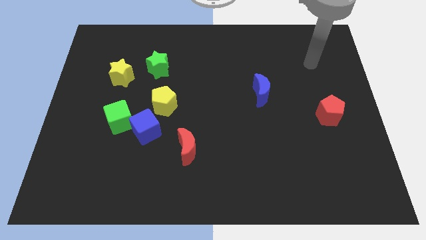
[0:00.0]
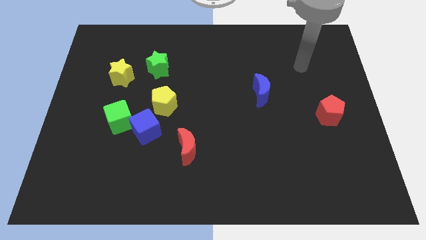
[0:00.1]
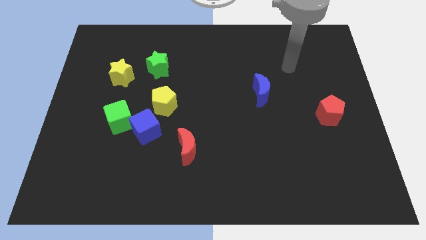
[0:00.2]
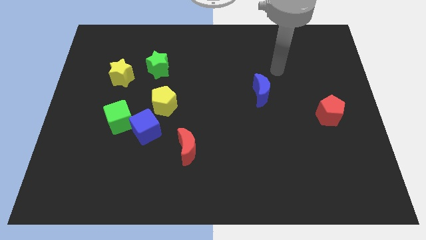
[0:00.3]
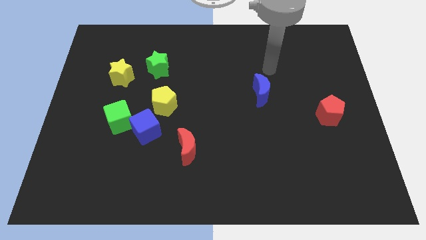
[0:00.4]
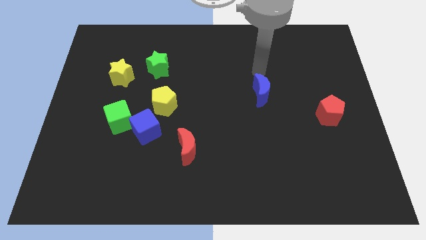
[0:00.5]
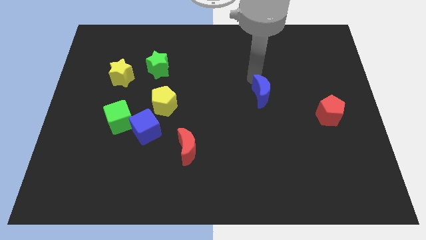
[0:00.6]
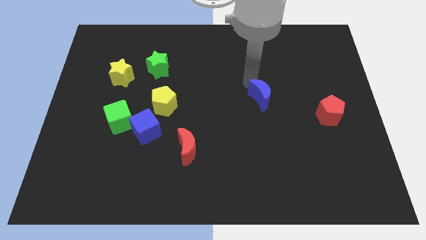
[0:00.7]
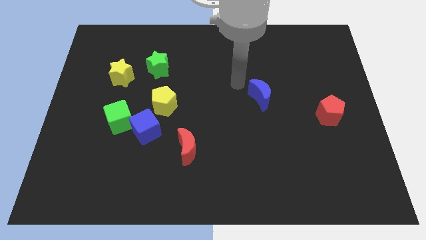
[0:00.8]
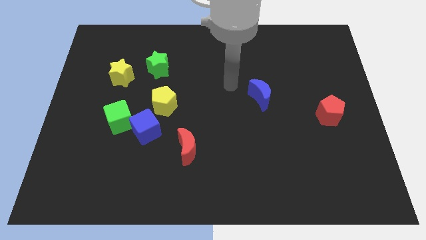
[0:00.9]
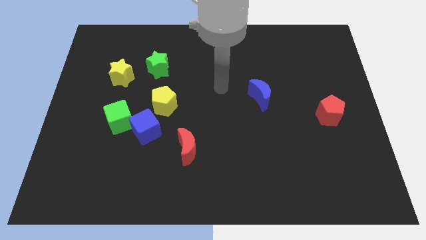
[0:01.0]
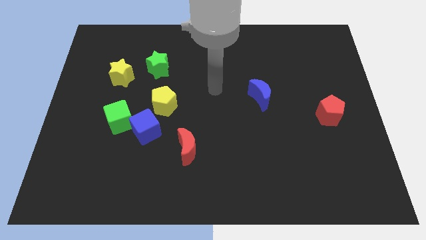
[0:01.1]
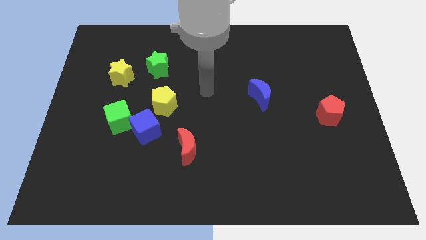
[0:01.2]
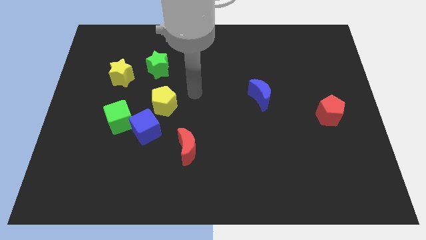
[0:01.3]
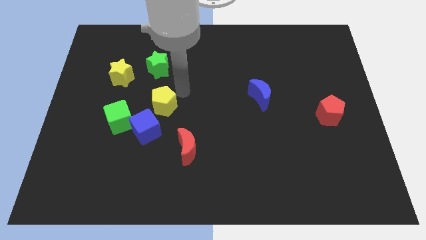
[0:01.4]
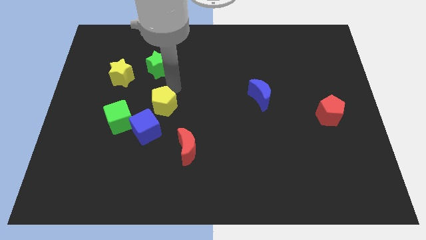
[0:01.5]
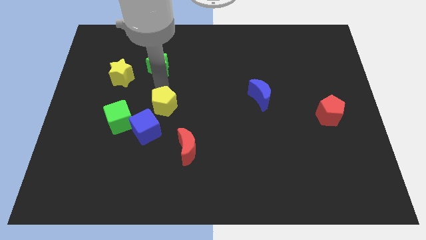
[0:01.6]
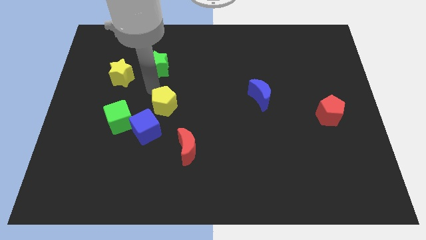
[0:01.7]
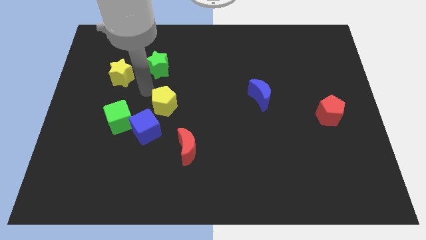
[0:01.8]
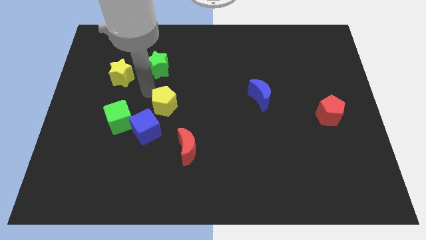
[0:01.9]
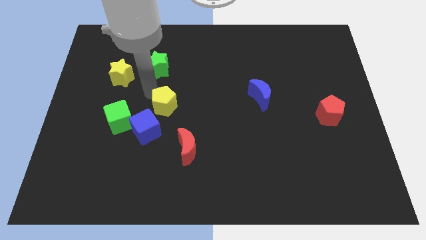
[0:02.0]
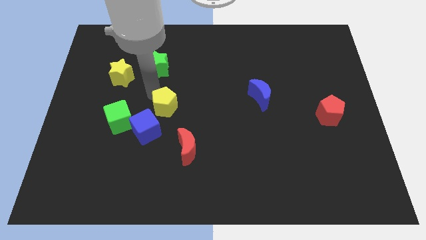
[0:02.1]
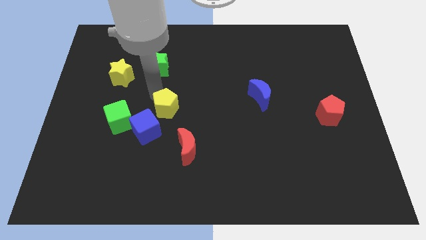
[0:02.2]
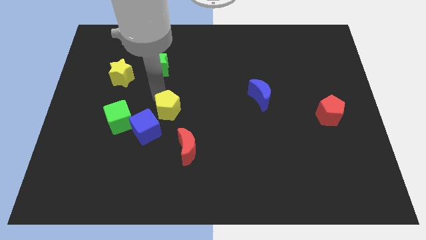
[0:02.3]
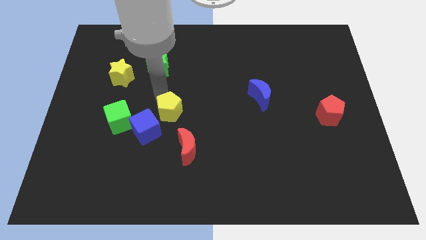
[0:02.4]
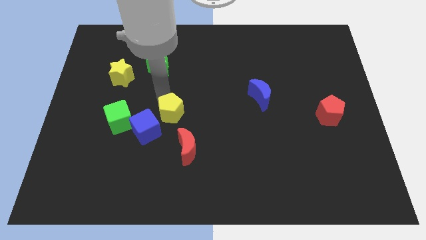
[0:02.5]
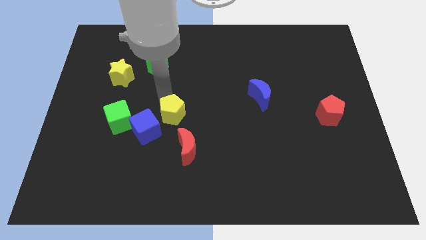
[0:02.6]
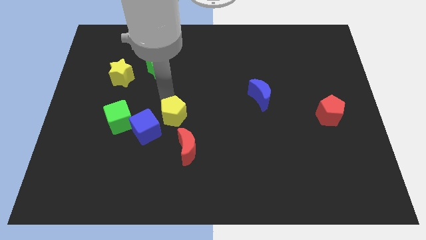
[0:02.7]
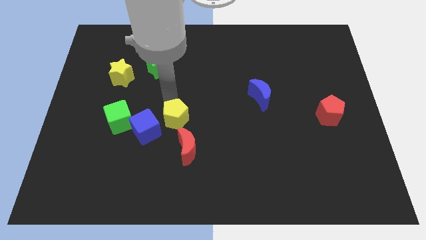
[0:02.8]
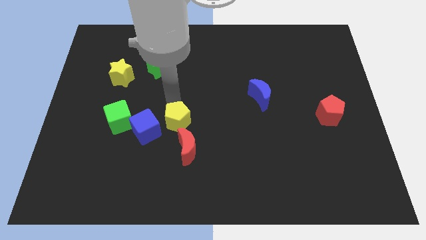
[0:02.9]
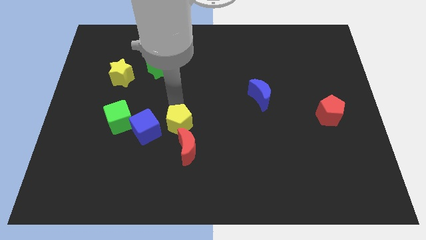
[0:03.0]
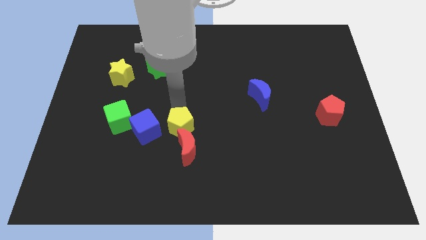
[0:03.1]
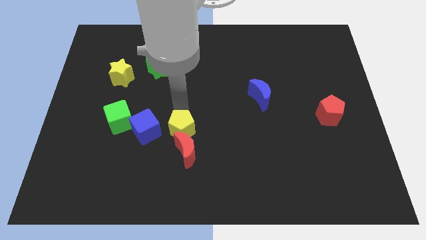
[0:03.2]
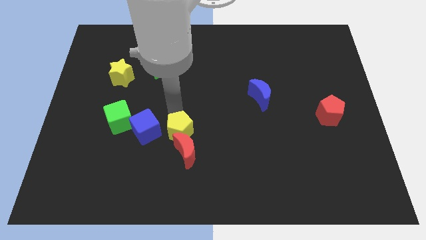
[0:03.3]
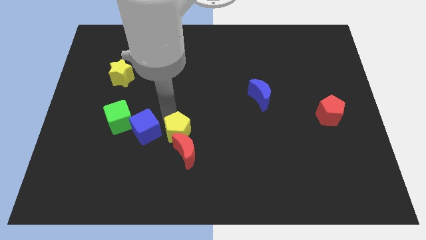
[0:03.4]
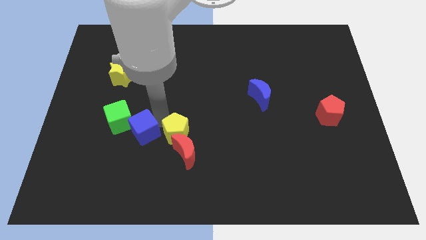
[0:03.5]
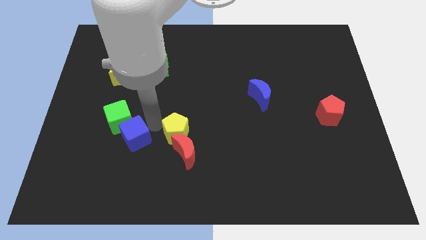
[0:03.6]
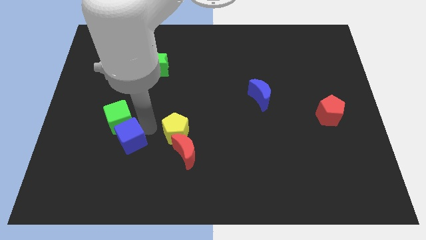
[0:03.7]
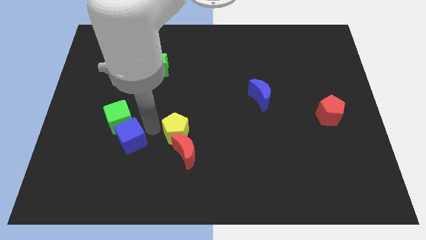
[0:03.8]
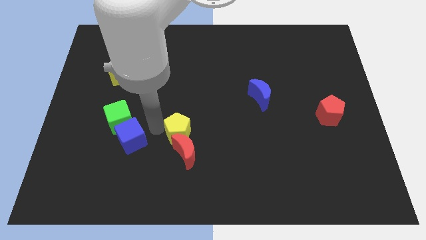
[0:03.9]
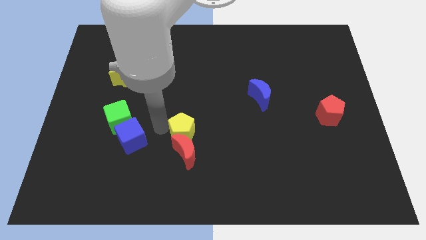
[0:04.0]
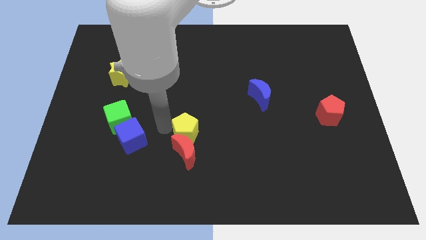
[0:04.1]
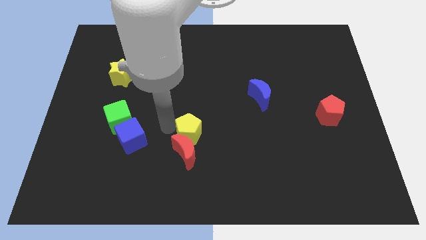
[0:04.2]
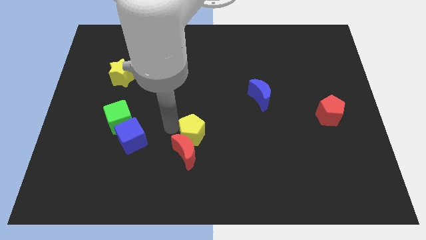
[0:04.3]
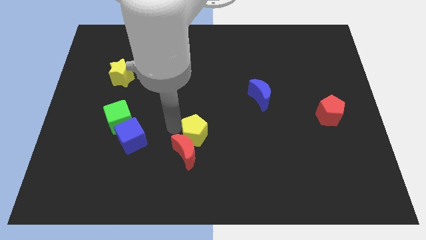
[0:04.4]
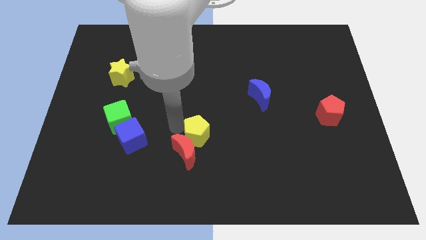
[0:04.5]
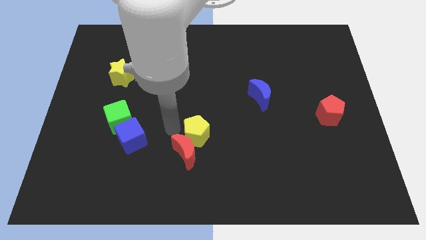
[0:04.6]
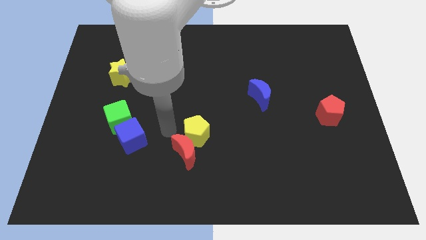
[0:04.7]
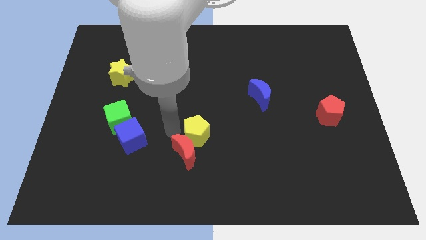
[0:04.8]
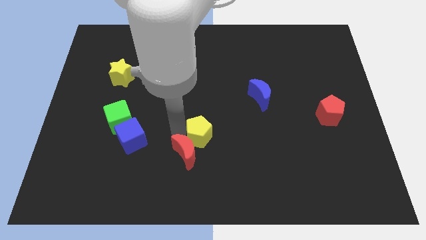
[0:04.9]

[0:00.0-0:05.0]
push the yellow pentagon right of the red moon

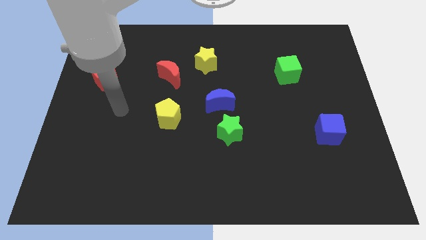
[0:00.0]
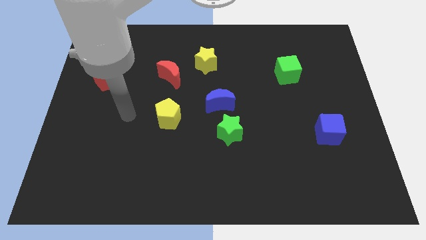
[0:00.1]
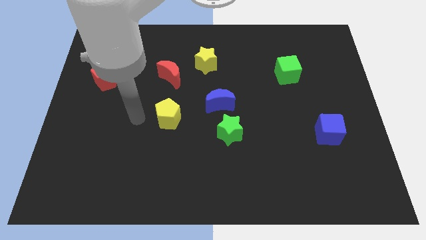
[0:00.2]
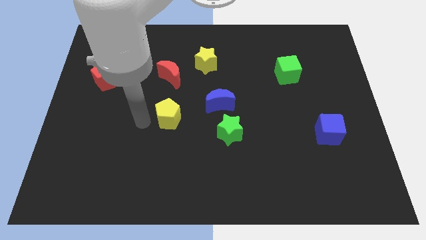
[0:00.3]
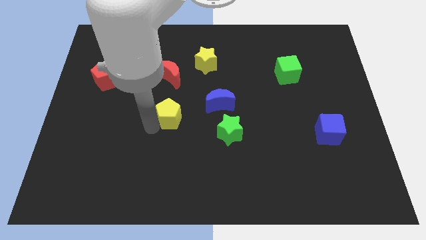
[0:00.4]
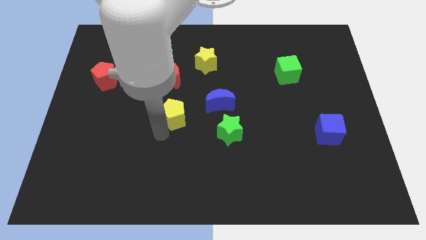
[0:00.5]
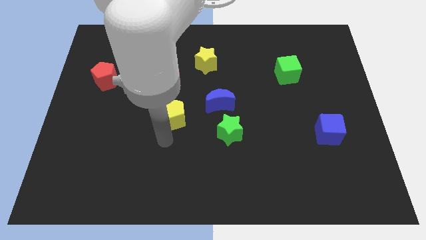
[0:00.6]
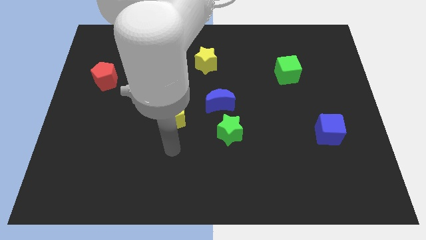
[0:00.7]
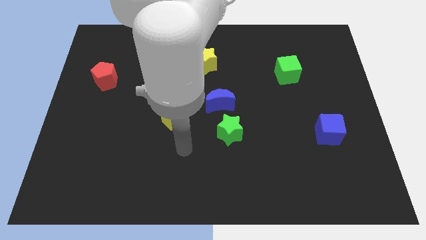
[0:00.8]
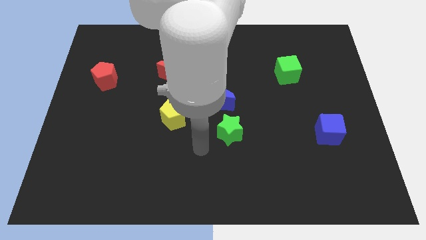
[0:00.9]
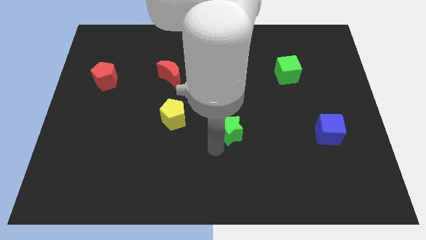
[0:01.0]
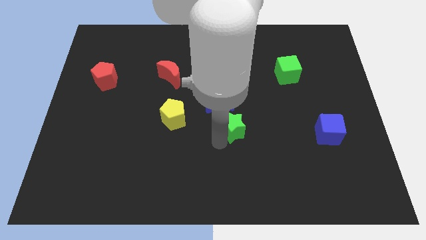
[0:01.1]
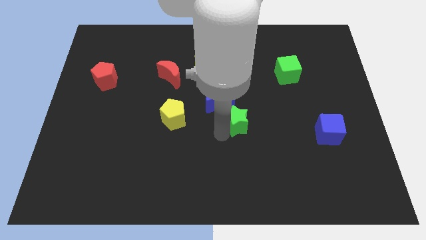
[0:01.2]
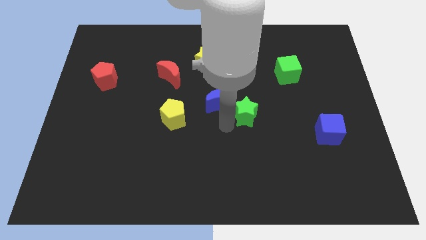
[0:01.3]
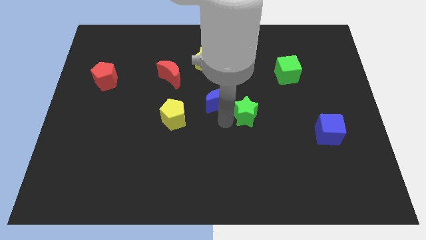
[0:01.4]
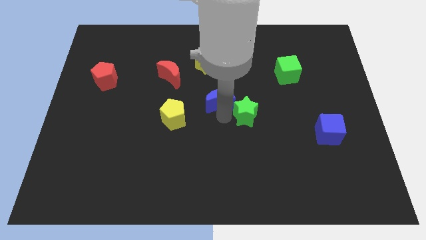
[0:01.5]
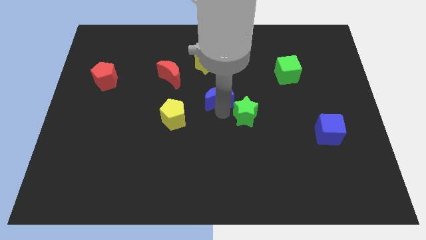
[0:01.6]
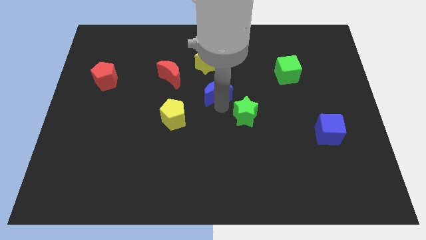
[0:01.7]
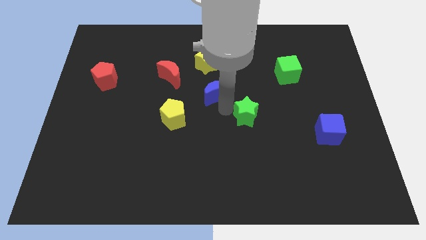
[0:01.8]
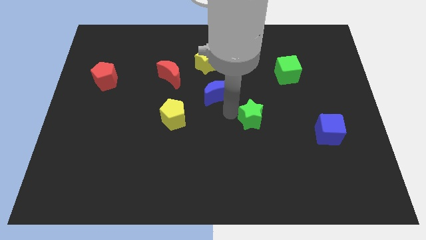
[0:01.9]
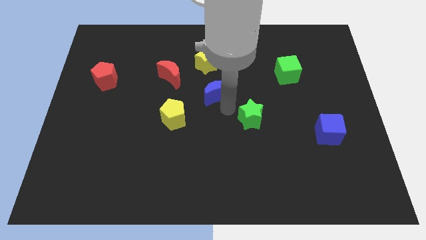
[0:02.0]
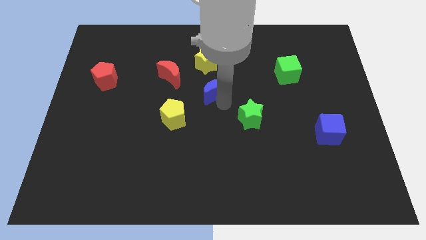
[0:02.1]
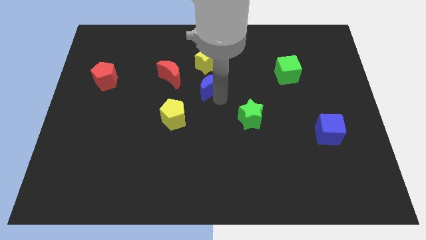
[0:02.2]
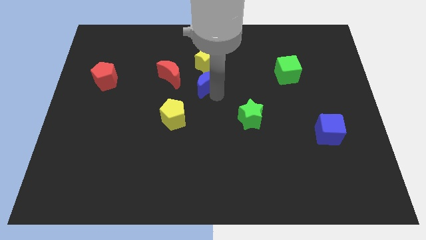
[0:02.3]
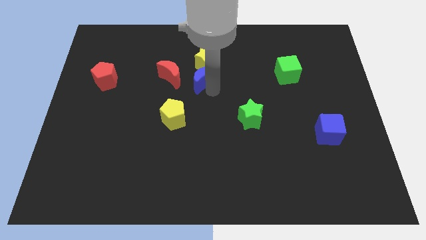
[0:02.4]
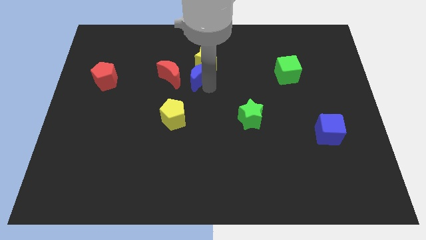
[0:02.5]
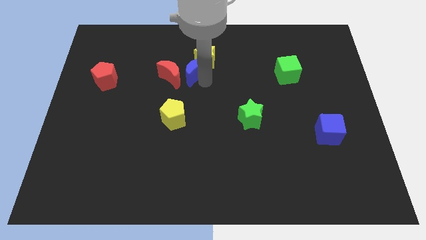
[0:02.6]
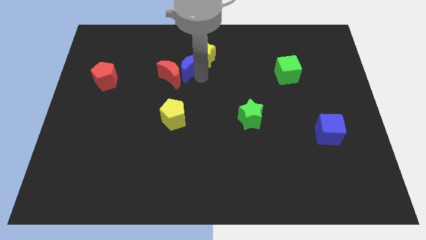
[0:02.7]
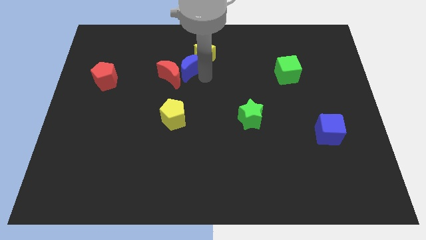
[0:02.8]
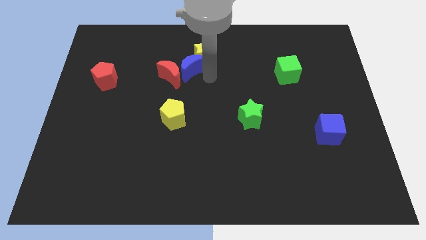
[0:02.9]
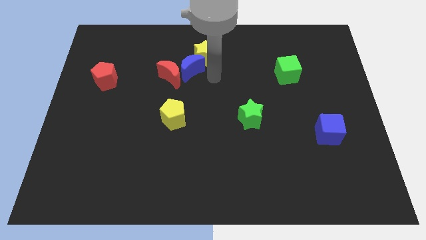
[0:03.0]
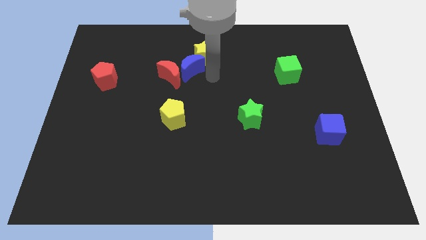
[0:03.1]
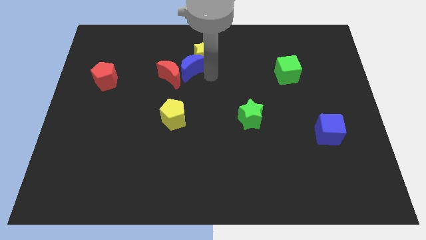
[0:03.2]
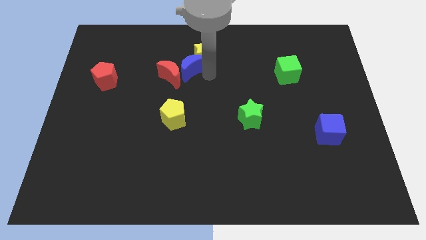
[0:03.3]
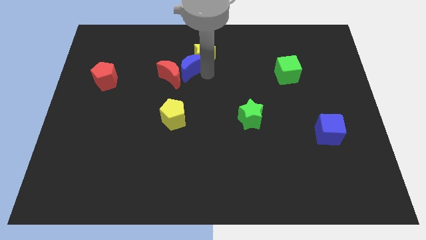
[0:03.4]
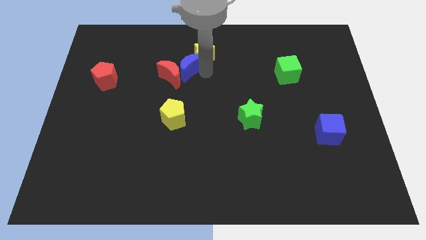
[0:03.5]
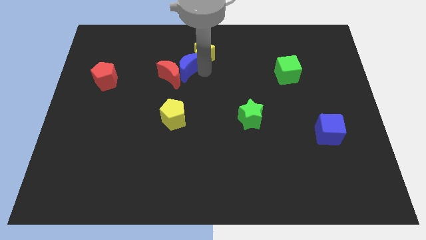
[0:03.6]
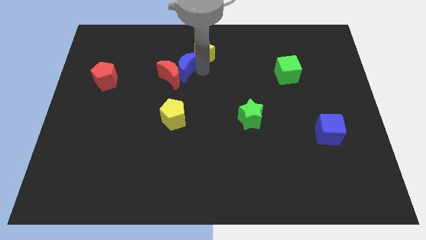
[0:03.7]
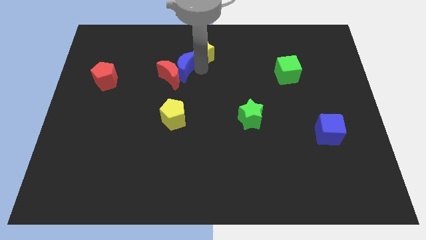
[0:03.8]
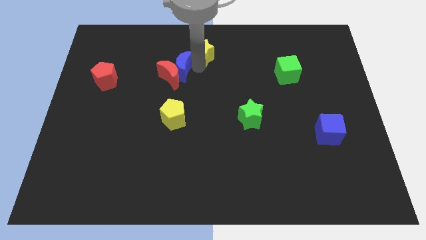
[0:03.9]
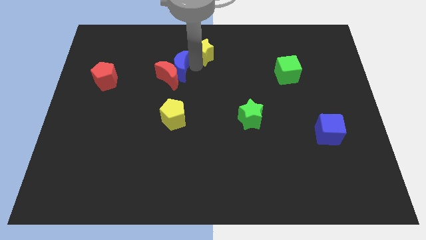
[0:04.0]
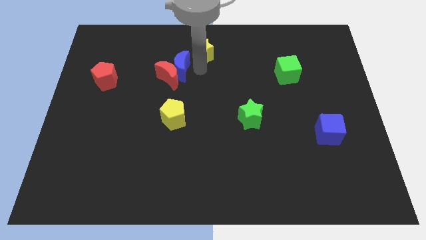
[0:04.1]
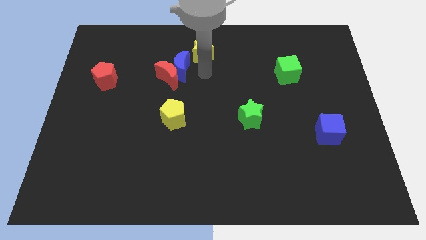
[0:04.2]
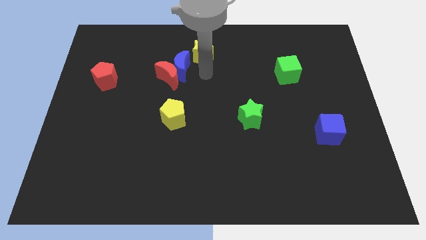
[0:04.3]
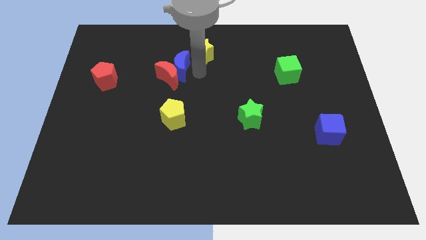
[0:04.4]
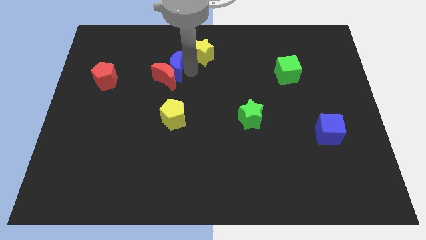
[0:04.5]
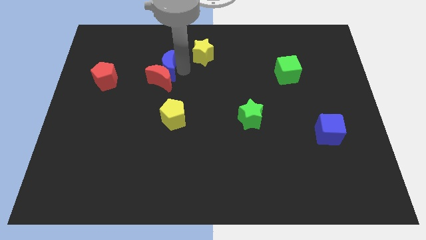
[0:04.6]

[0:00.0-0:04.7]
slide the blue moon to the top left of the red moon
